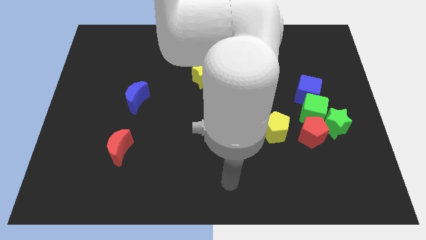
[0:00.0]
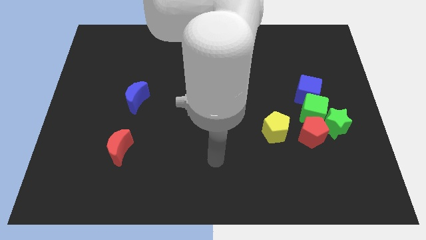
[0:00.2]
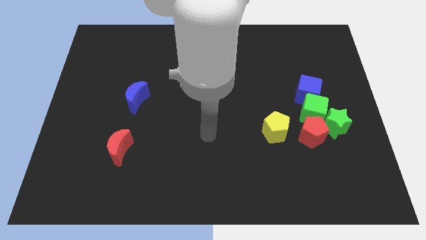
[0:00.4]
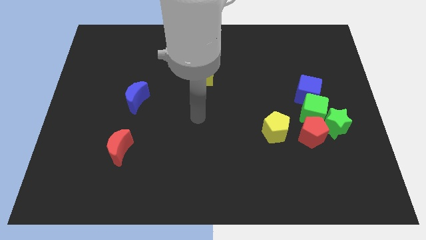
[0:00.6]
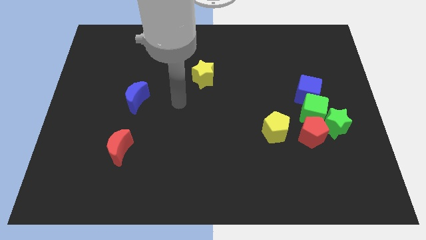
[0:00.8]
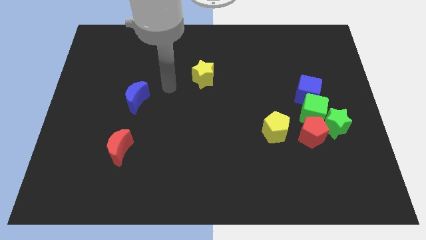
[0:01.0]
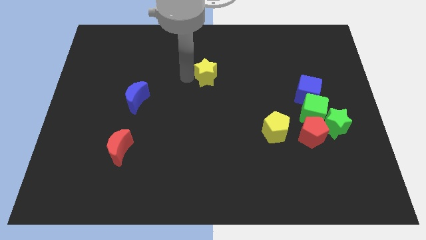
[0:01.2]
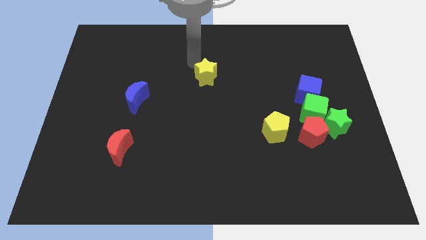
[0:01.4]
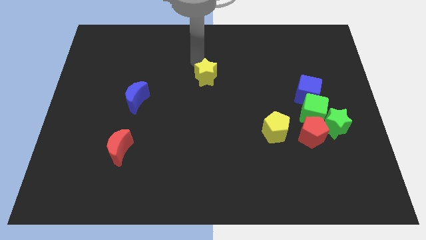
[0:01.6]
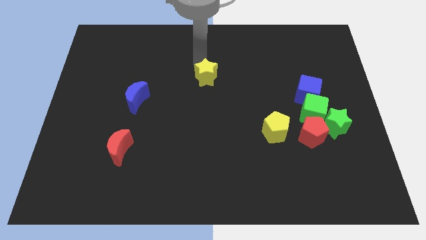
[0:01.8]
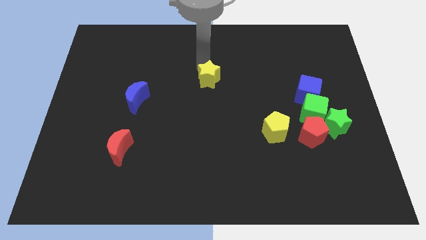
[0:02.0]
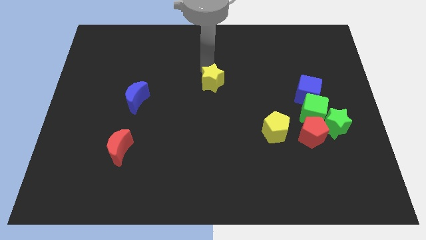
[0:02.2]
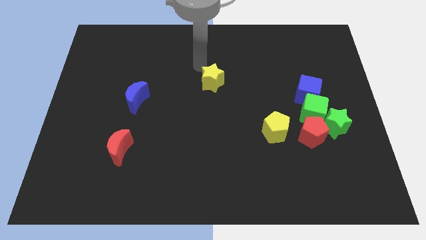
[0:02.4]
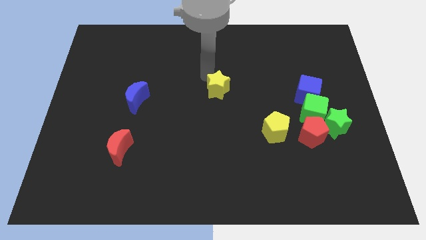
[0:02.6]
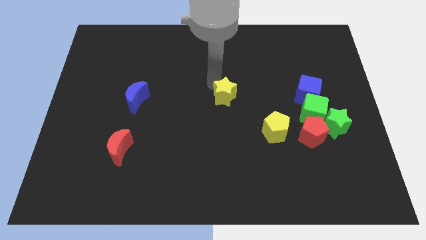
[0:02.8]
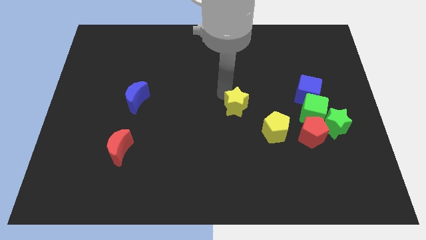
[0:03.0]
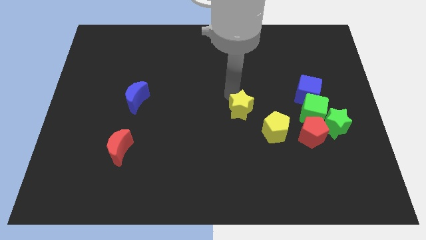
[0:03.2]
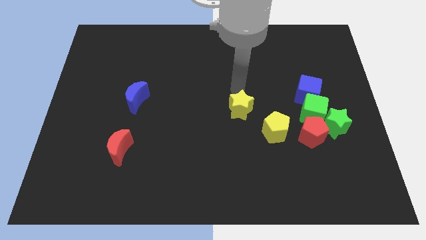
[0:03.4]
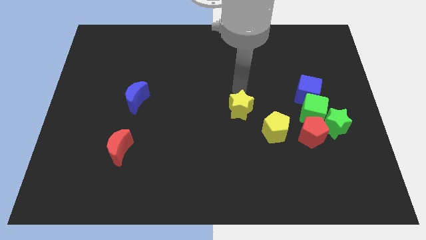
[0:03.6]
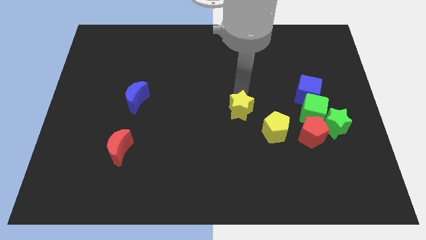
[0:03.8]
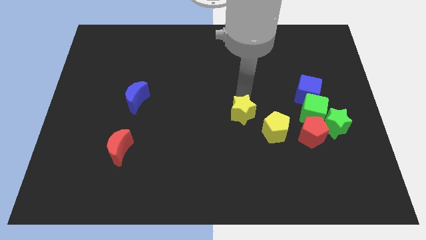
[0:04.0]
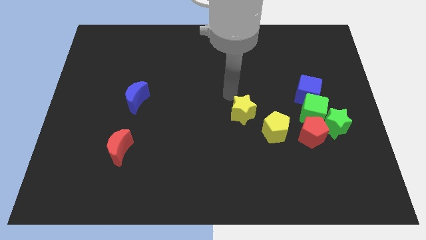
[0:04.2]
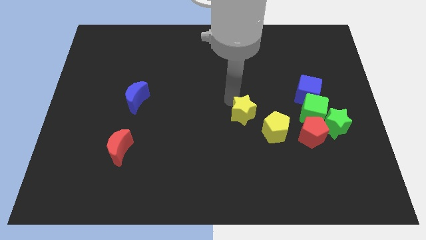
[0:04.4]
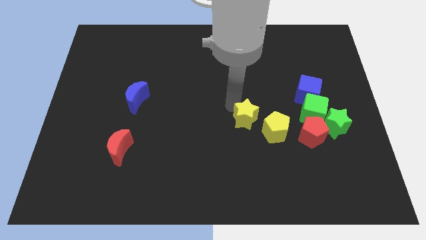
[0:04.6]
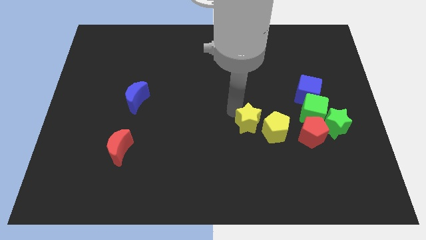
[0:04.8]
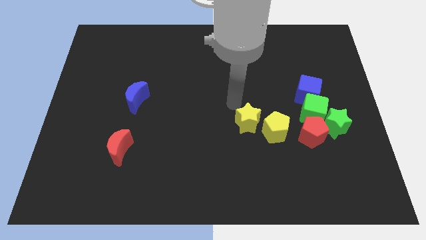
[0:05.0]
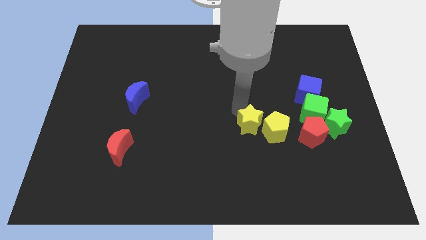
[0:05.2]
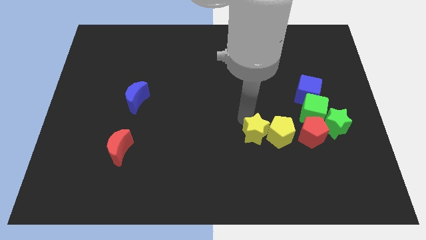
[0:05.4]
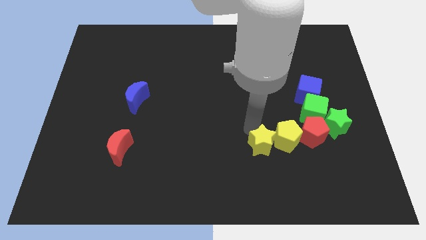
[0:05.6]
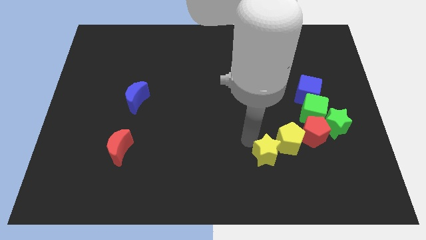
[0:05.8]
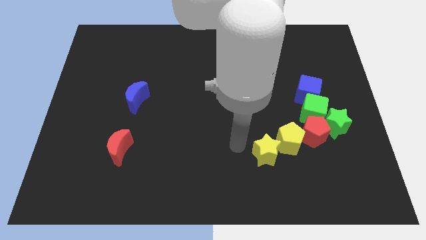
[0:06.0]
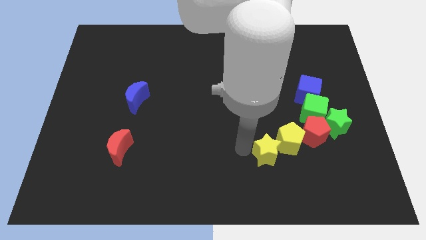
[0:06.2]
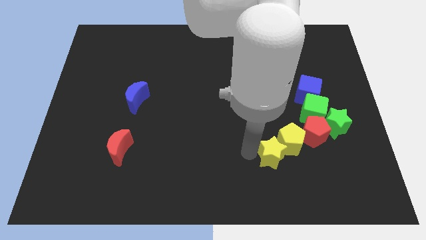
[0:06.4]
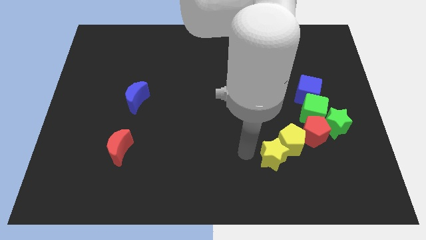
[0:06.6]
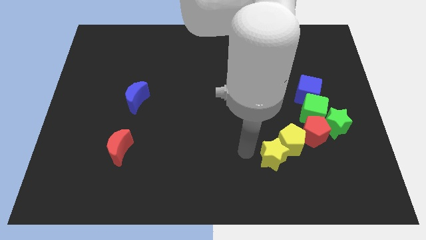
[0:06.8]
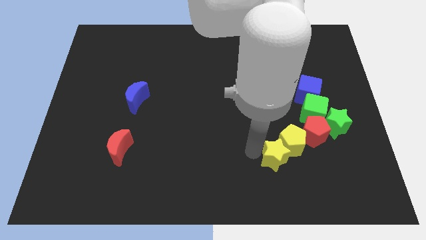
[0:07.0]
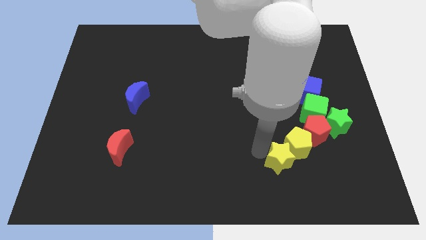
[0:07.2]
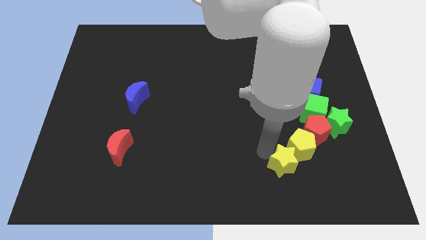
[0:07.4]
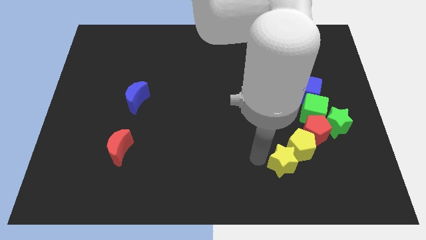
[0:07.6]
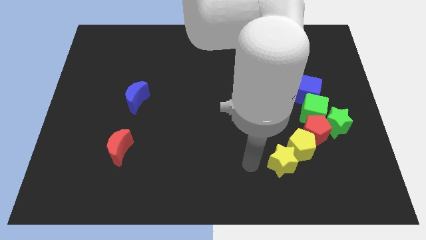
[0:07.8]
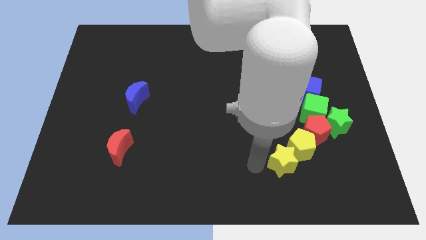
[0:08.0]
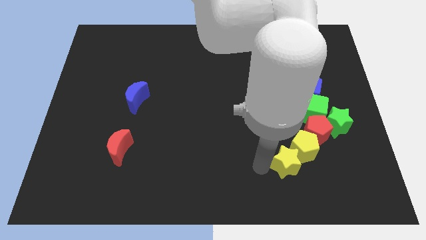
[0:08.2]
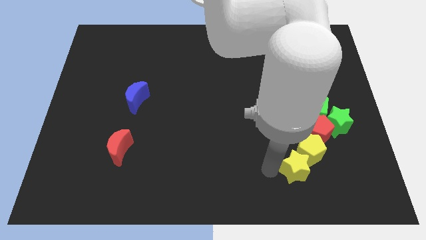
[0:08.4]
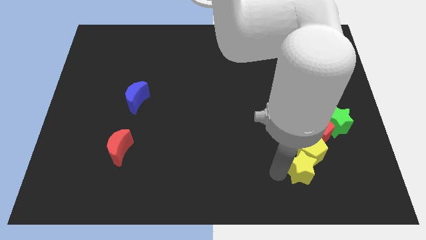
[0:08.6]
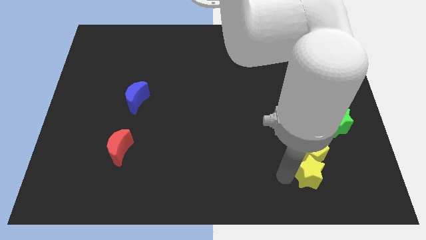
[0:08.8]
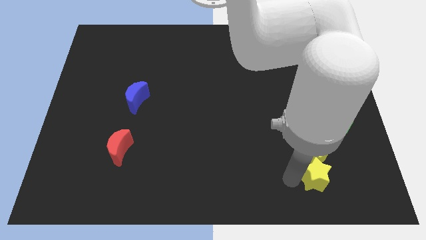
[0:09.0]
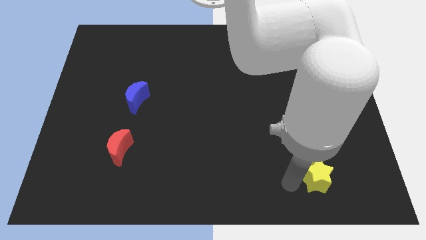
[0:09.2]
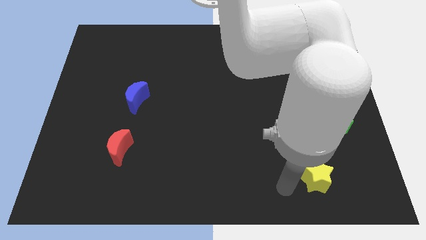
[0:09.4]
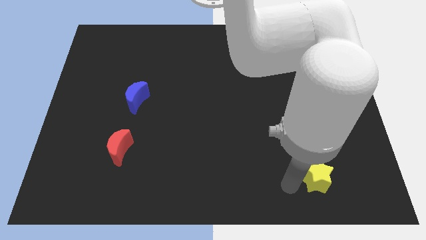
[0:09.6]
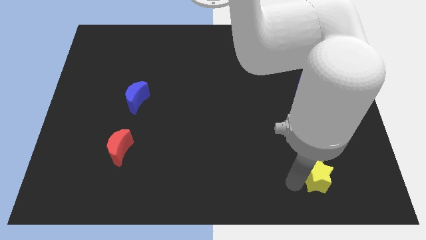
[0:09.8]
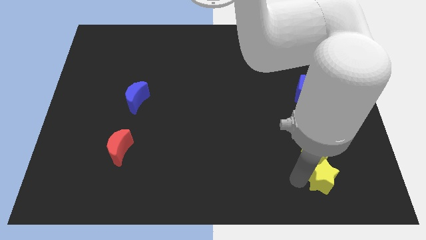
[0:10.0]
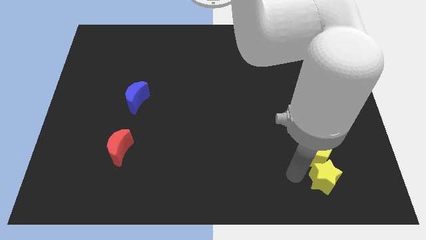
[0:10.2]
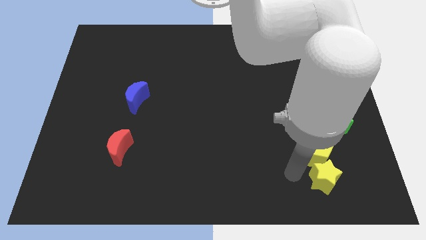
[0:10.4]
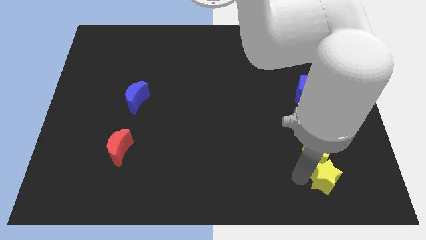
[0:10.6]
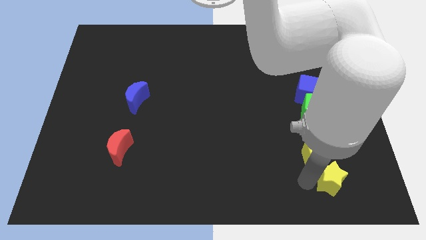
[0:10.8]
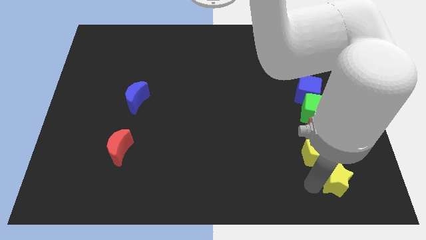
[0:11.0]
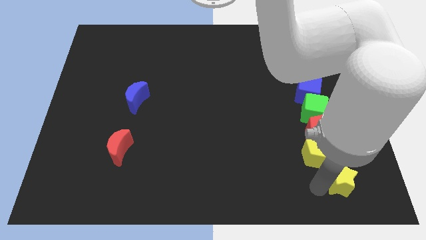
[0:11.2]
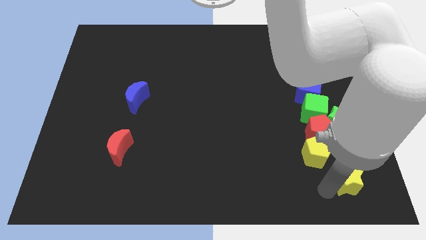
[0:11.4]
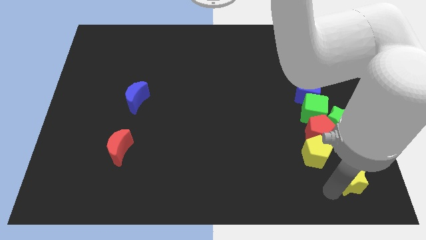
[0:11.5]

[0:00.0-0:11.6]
move the yellow star to the bottom right of the board

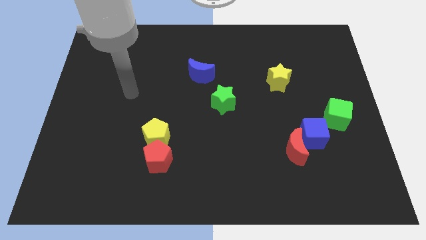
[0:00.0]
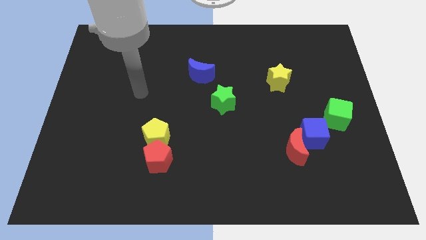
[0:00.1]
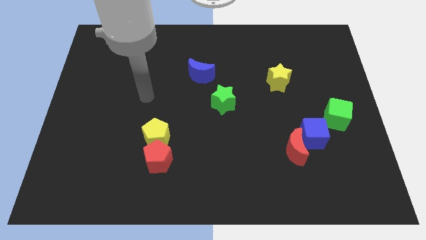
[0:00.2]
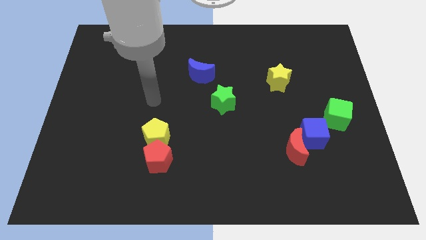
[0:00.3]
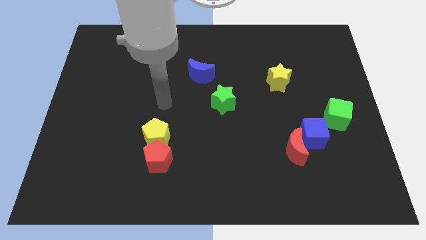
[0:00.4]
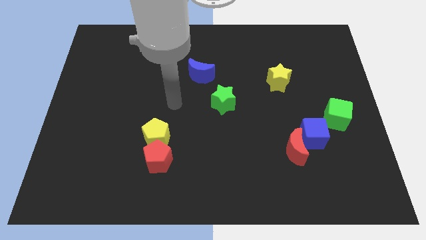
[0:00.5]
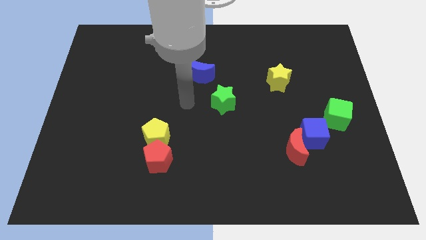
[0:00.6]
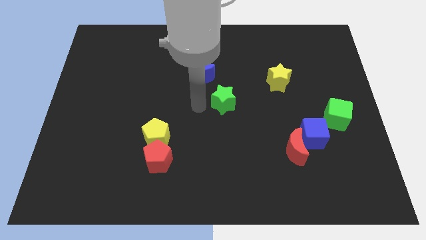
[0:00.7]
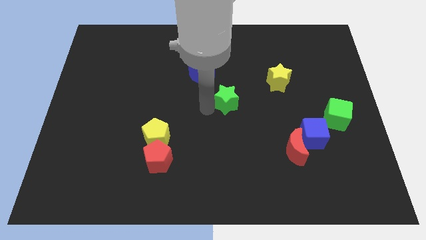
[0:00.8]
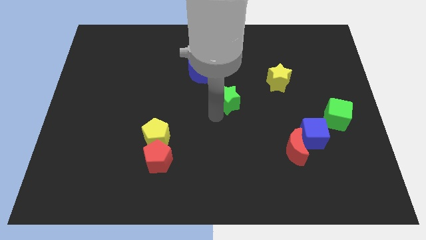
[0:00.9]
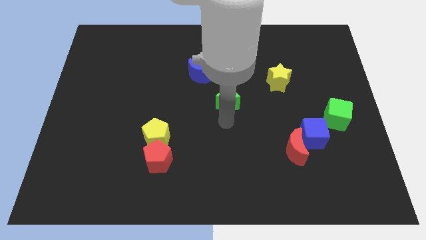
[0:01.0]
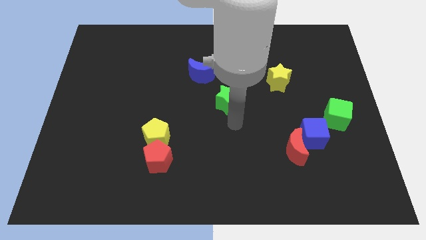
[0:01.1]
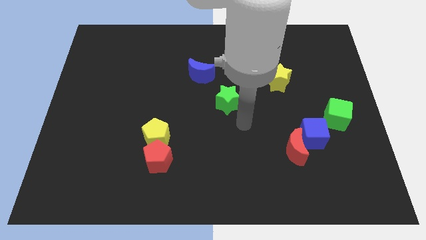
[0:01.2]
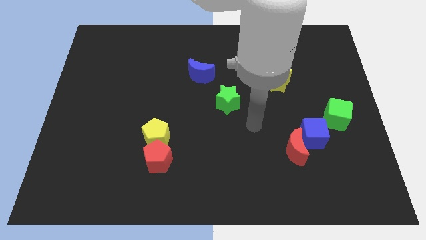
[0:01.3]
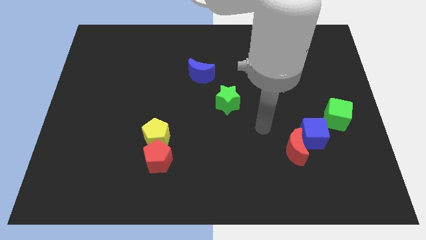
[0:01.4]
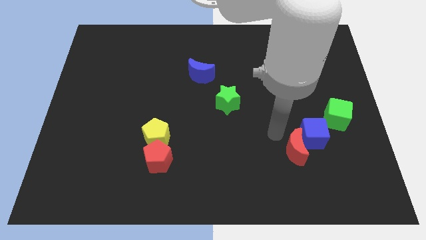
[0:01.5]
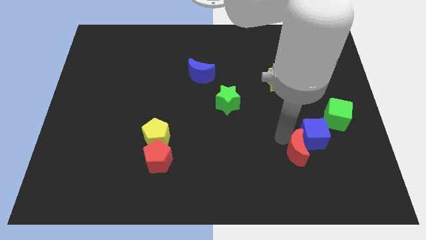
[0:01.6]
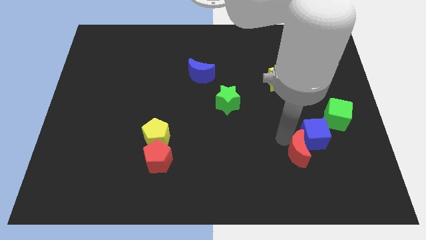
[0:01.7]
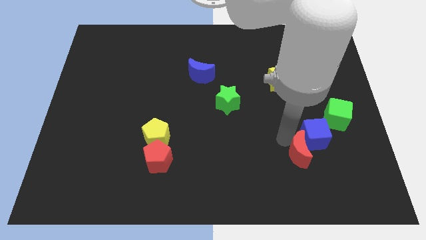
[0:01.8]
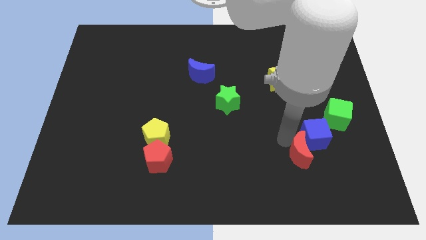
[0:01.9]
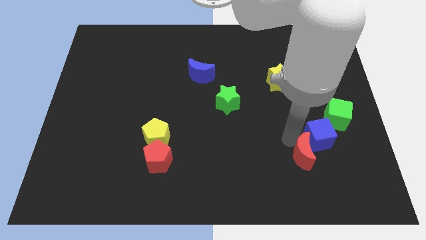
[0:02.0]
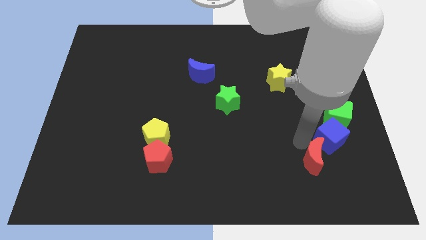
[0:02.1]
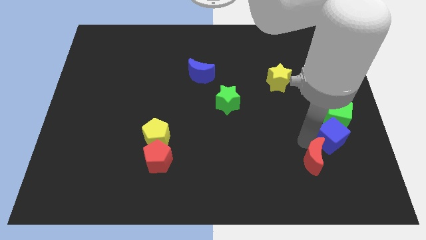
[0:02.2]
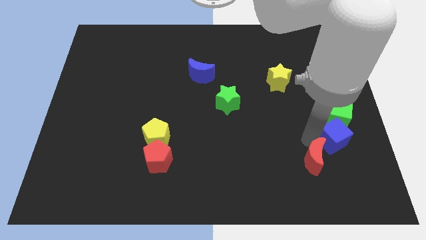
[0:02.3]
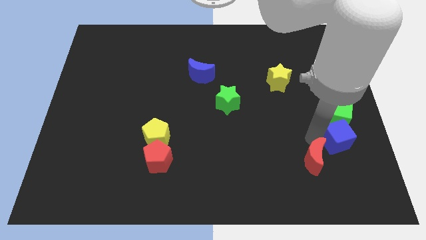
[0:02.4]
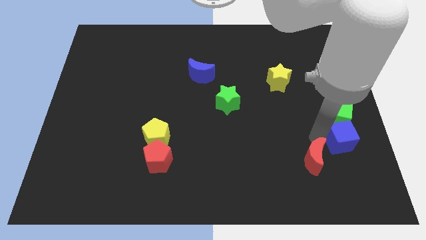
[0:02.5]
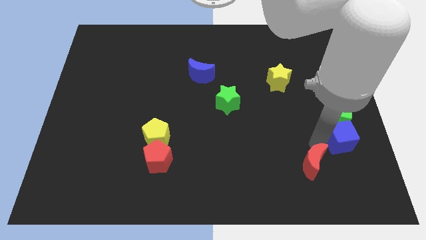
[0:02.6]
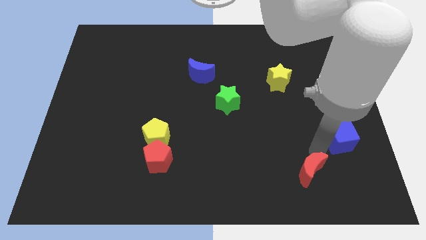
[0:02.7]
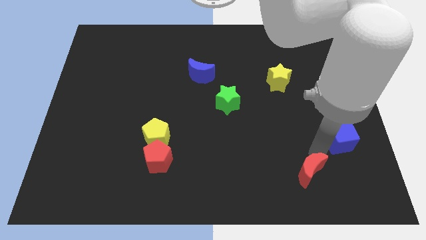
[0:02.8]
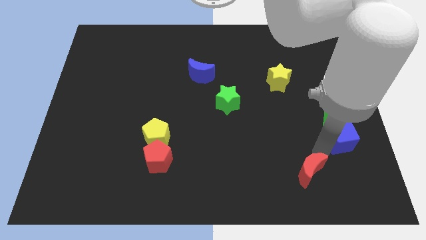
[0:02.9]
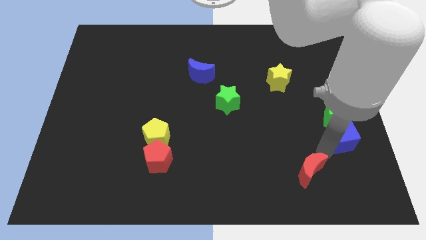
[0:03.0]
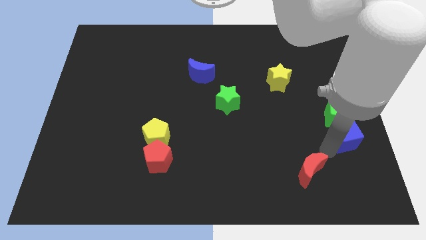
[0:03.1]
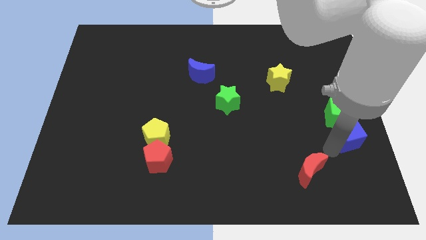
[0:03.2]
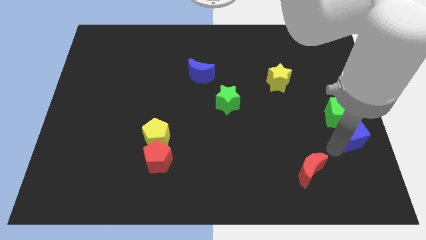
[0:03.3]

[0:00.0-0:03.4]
move the blue cube to the center right
